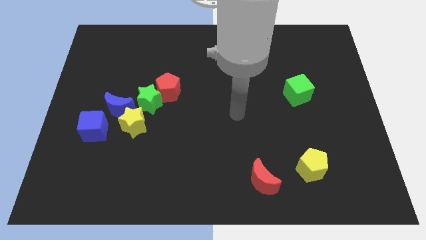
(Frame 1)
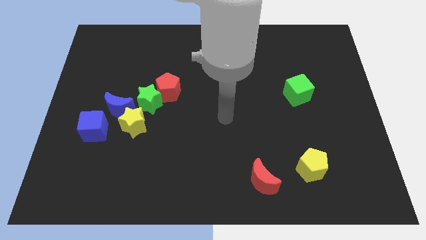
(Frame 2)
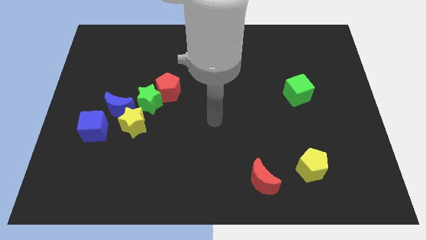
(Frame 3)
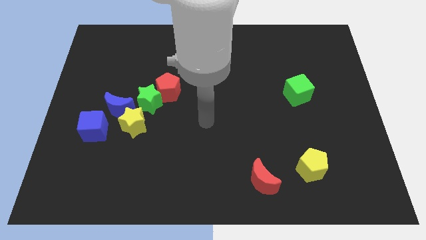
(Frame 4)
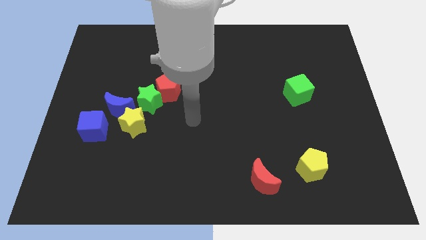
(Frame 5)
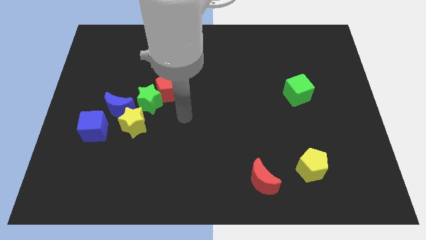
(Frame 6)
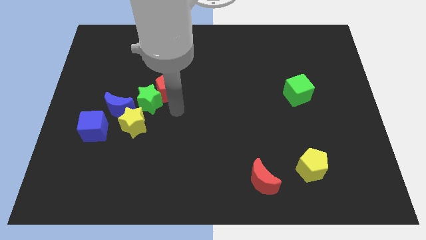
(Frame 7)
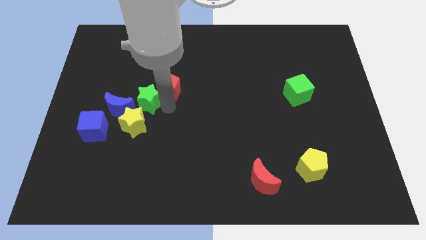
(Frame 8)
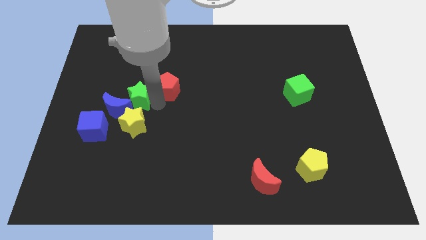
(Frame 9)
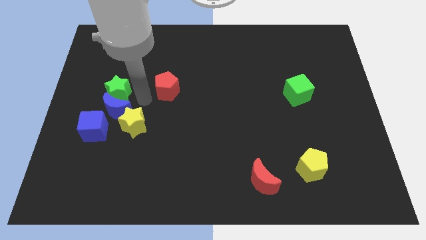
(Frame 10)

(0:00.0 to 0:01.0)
move the red pentagon away from the green star

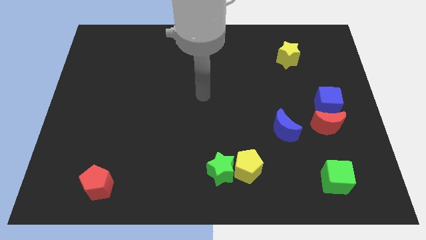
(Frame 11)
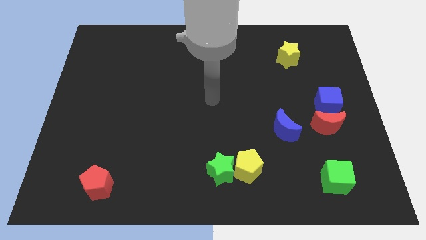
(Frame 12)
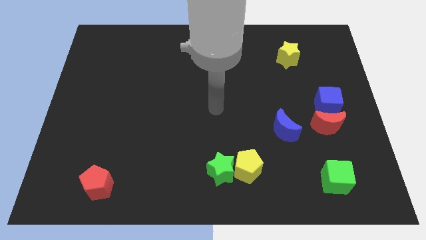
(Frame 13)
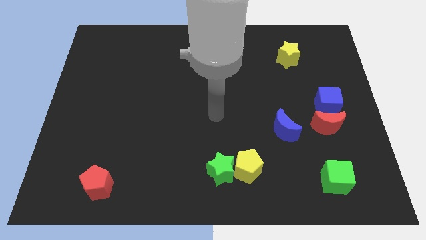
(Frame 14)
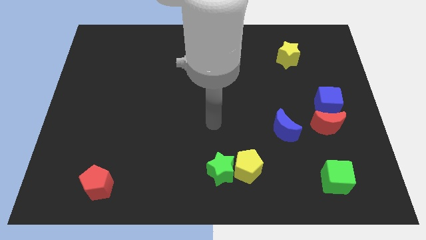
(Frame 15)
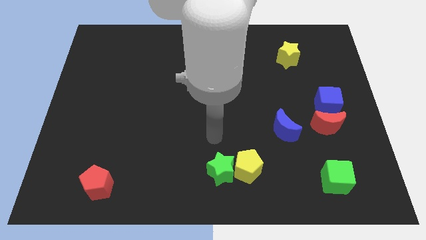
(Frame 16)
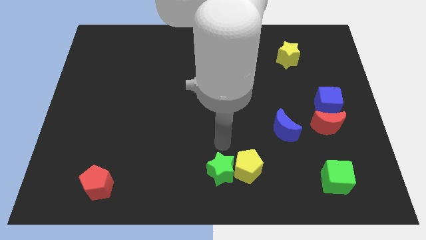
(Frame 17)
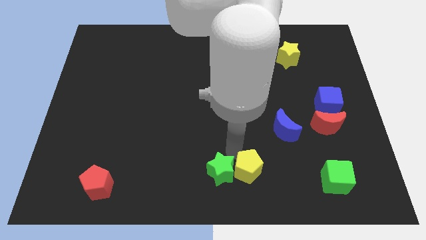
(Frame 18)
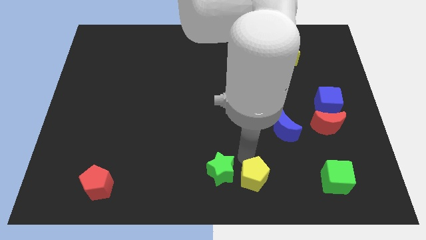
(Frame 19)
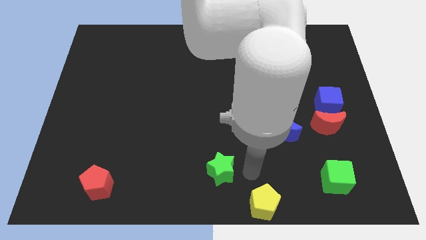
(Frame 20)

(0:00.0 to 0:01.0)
move the green star away from the yellow pentagon

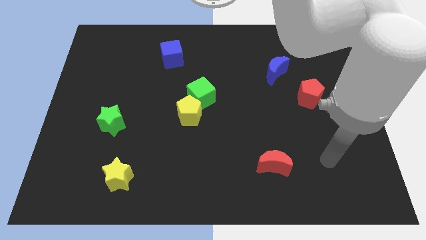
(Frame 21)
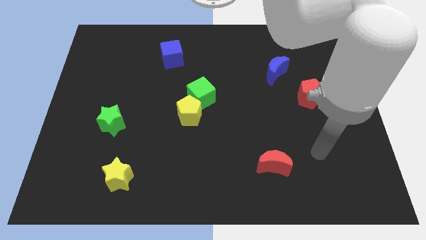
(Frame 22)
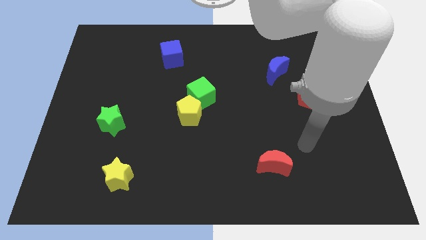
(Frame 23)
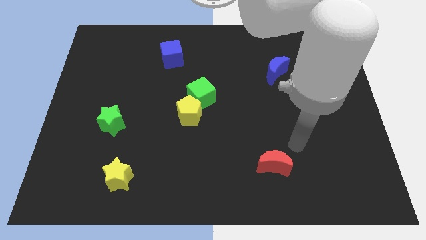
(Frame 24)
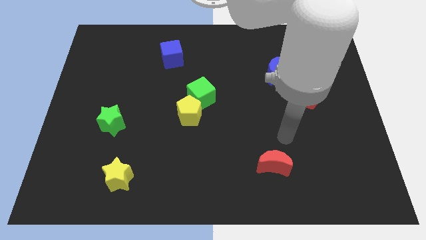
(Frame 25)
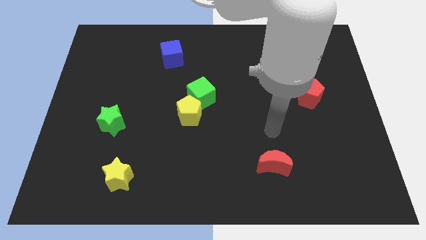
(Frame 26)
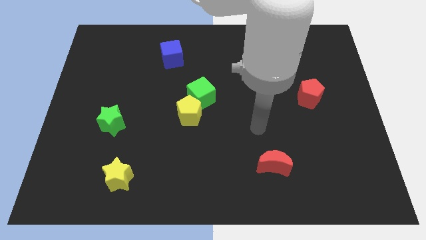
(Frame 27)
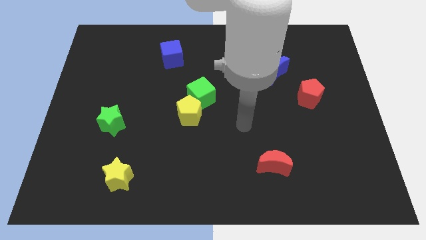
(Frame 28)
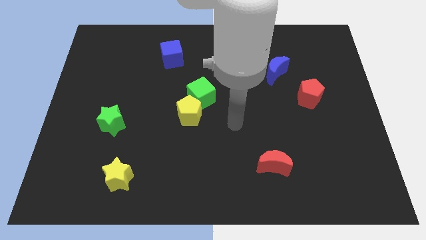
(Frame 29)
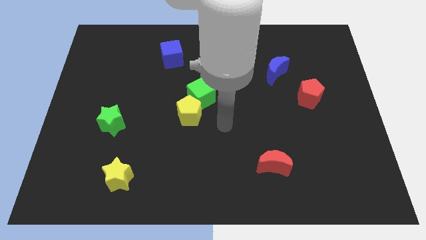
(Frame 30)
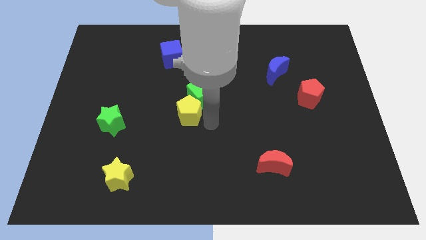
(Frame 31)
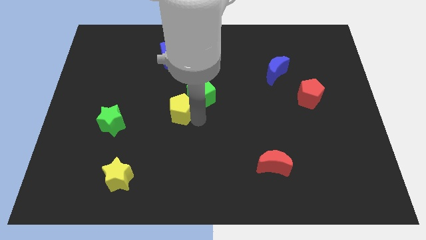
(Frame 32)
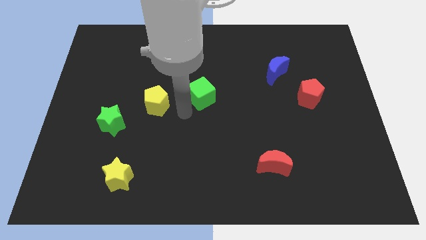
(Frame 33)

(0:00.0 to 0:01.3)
separate the green cube from the yellow pentagon

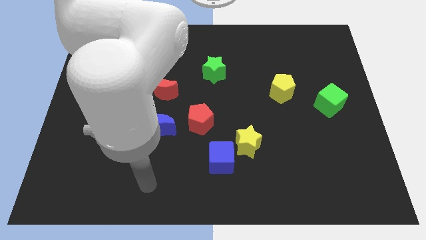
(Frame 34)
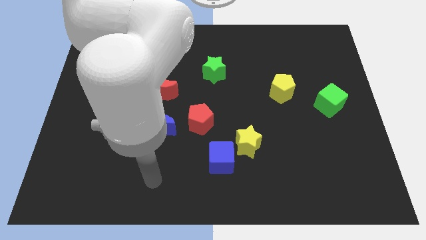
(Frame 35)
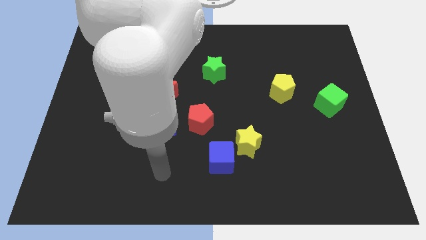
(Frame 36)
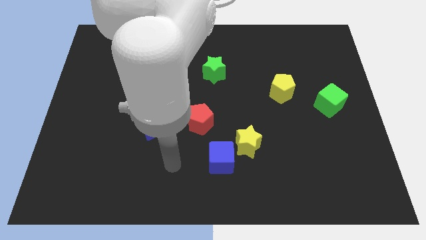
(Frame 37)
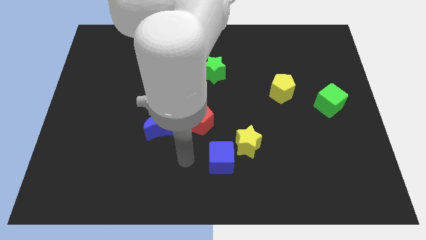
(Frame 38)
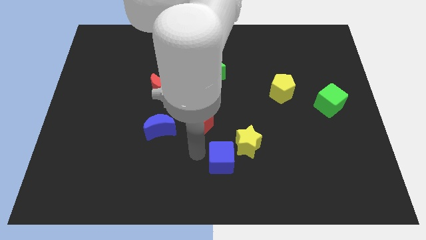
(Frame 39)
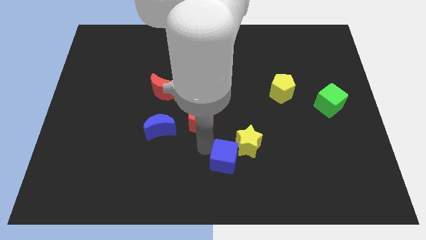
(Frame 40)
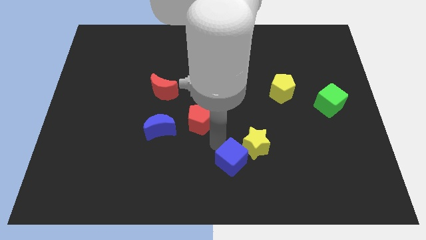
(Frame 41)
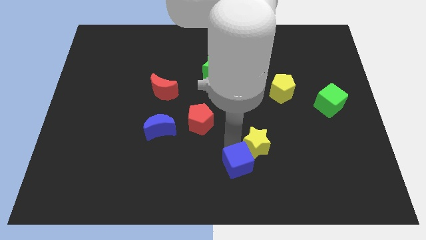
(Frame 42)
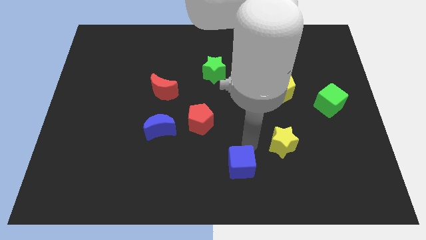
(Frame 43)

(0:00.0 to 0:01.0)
move the blue cube away from the yellow star

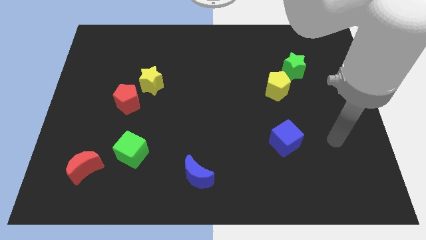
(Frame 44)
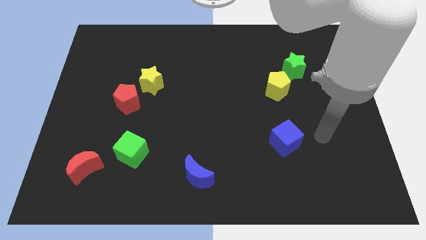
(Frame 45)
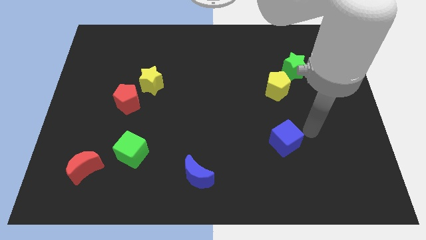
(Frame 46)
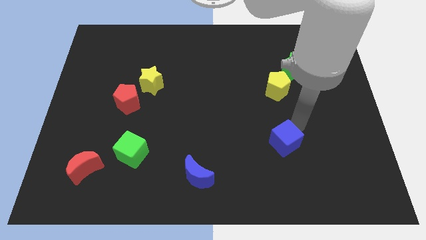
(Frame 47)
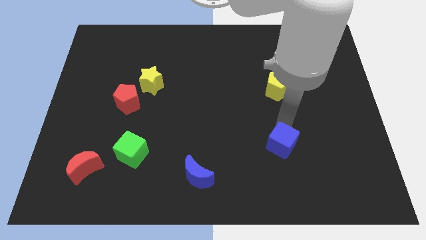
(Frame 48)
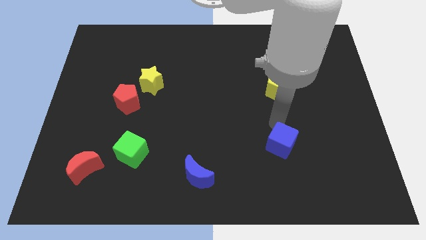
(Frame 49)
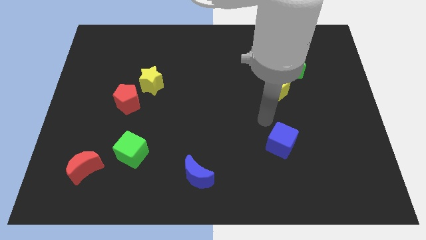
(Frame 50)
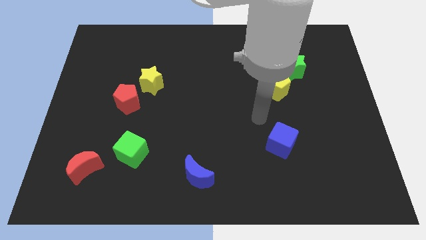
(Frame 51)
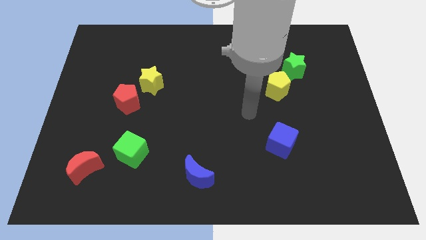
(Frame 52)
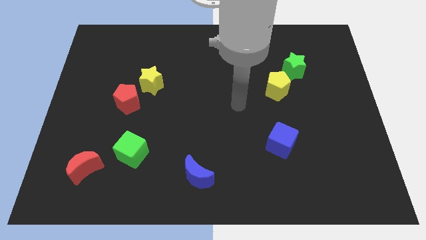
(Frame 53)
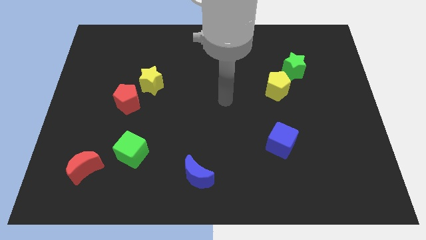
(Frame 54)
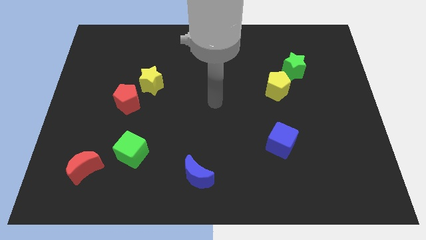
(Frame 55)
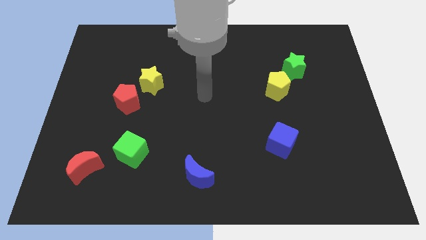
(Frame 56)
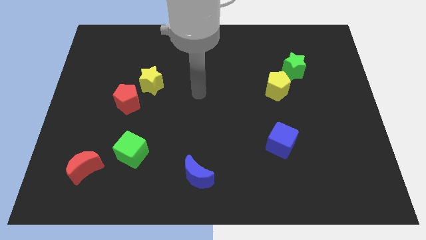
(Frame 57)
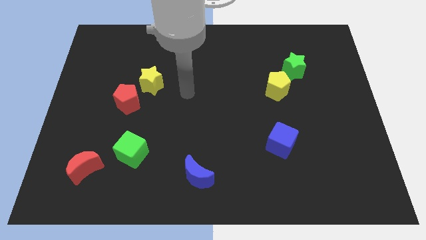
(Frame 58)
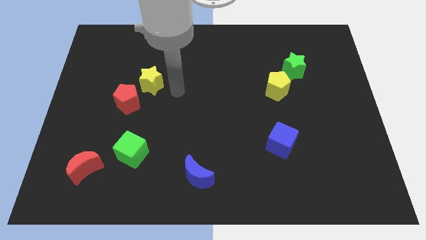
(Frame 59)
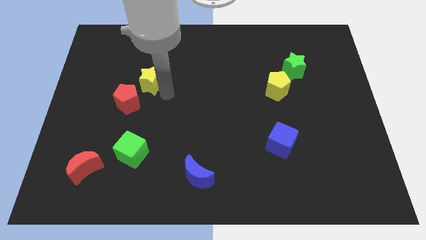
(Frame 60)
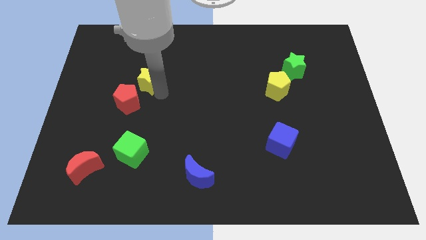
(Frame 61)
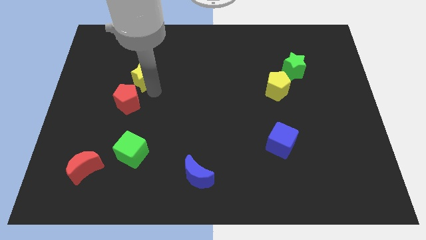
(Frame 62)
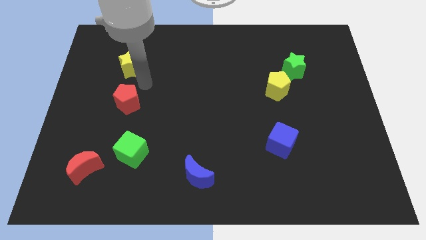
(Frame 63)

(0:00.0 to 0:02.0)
move the red pentagon away from the yellow star

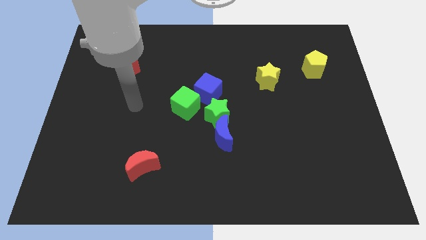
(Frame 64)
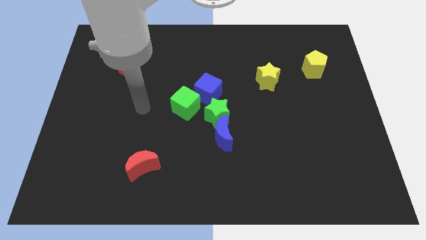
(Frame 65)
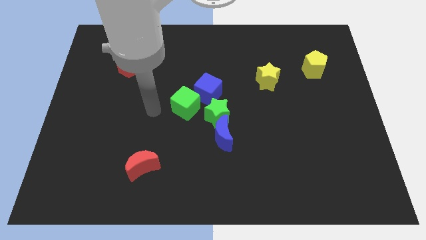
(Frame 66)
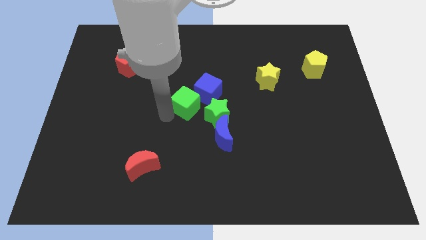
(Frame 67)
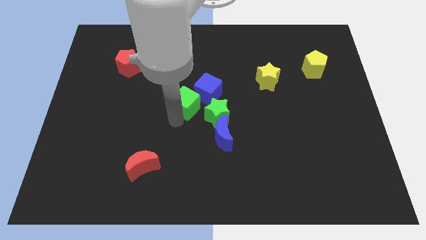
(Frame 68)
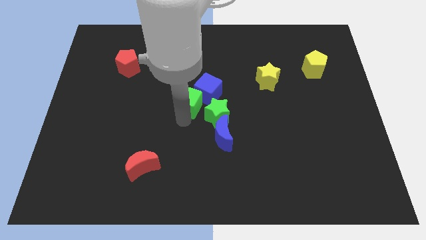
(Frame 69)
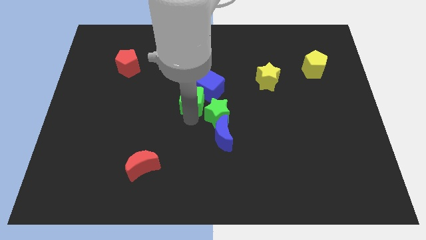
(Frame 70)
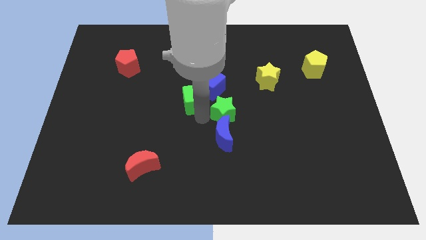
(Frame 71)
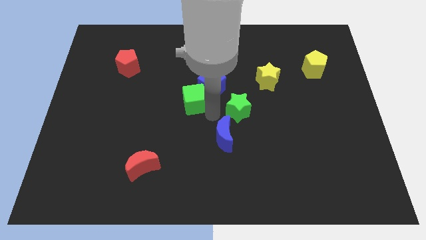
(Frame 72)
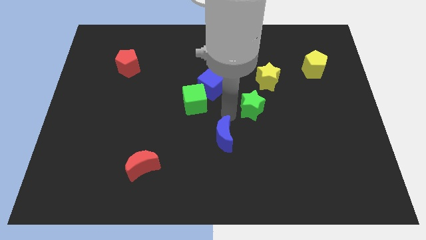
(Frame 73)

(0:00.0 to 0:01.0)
pull the blue moon apart from the green star

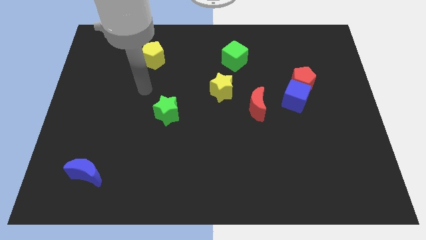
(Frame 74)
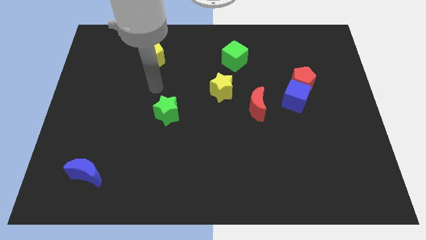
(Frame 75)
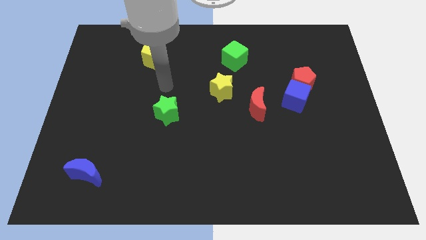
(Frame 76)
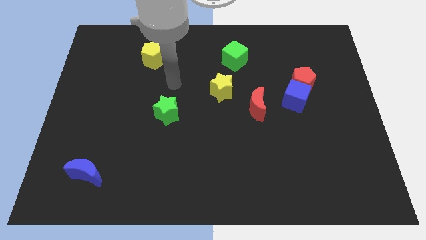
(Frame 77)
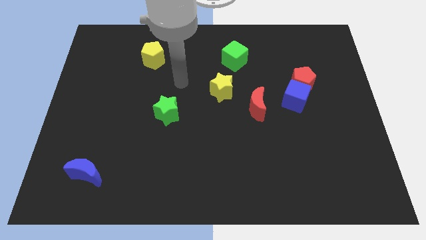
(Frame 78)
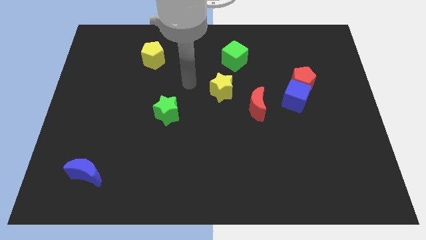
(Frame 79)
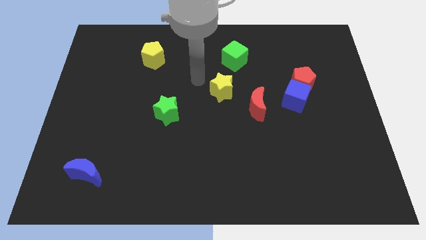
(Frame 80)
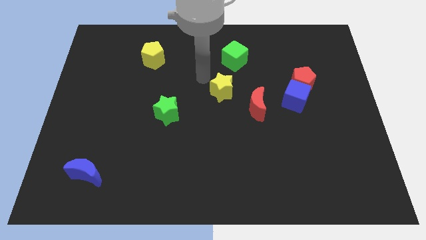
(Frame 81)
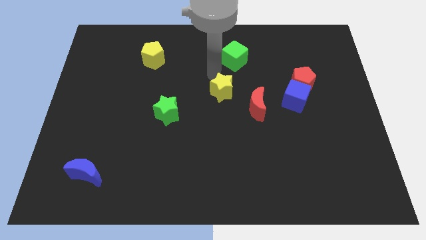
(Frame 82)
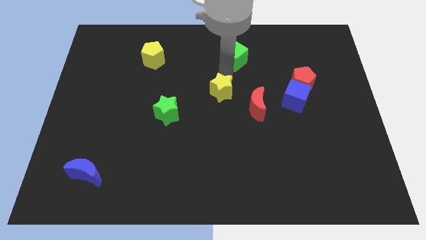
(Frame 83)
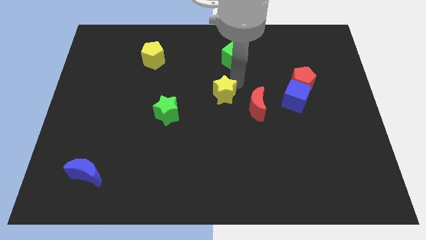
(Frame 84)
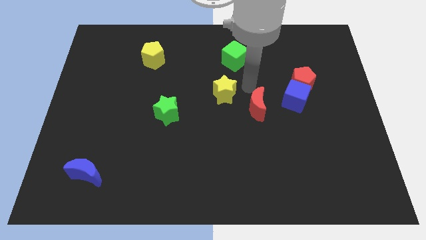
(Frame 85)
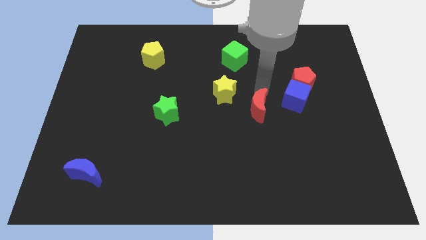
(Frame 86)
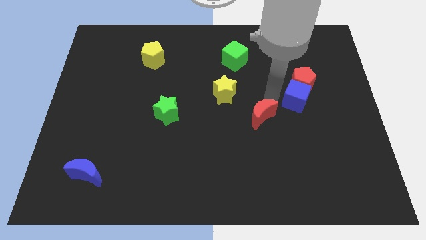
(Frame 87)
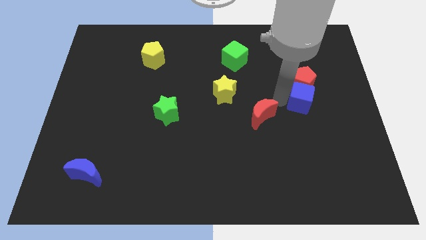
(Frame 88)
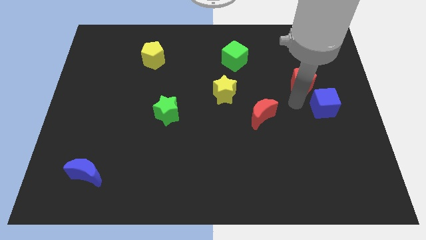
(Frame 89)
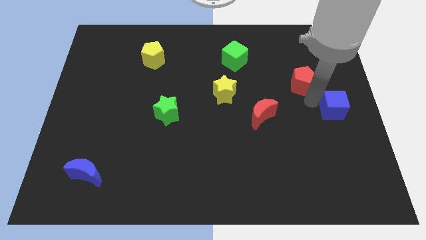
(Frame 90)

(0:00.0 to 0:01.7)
pull the red pentagon apart from the blue cube

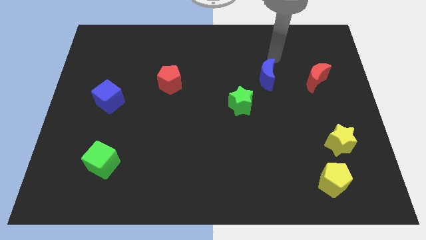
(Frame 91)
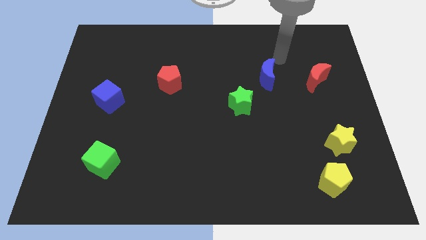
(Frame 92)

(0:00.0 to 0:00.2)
separate the yellow star from the yellow pentagon

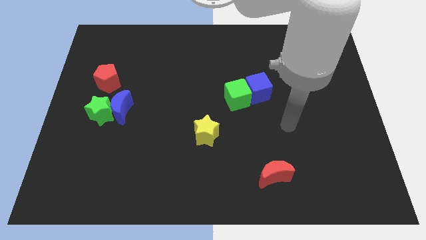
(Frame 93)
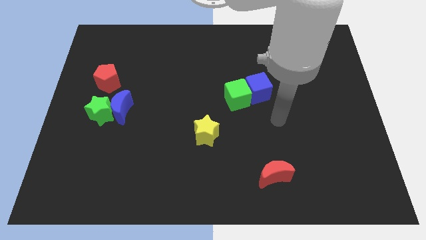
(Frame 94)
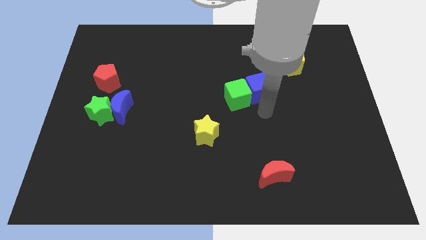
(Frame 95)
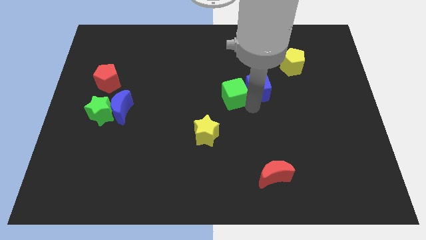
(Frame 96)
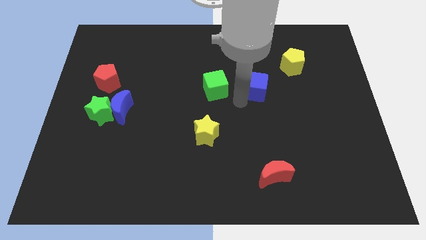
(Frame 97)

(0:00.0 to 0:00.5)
pull the blue cube apart from the green cube
